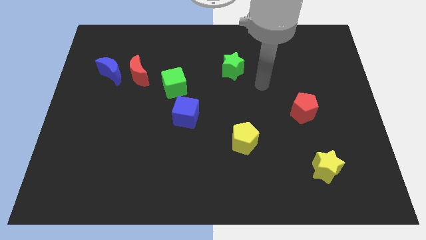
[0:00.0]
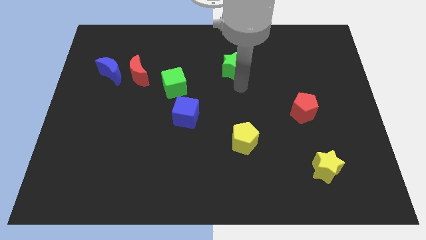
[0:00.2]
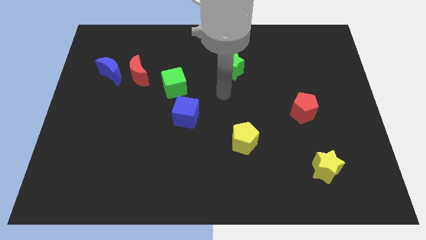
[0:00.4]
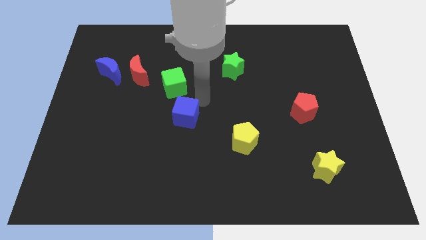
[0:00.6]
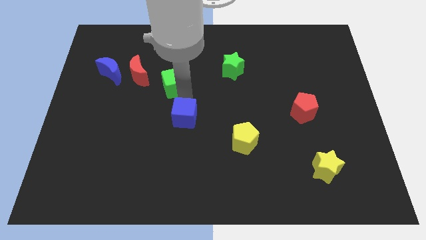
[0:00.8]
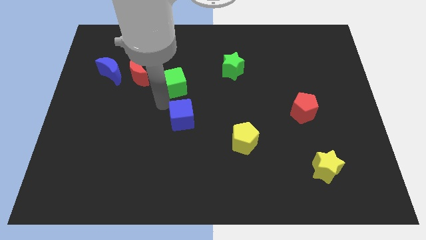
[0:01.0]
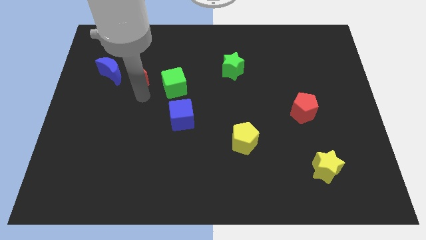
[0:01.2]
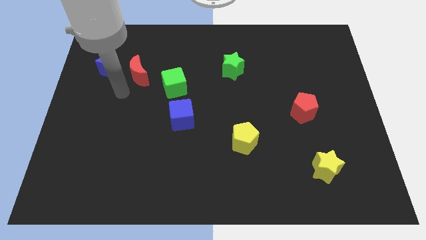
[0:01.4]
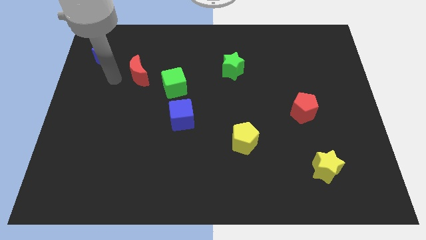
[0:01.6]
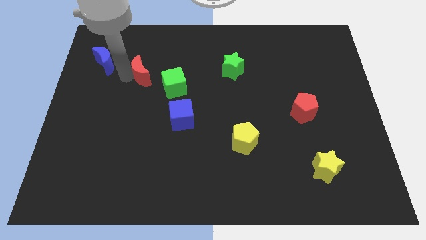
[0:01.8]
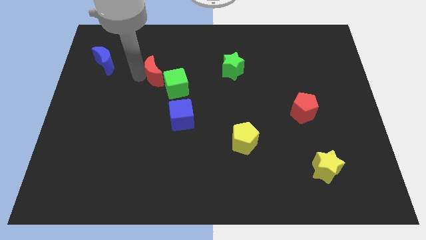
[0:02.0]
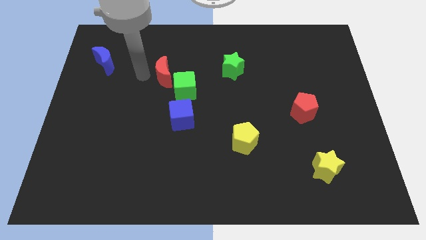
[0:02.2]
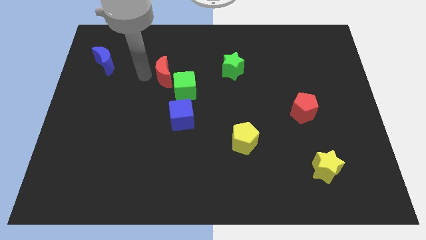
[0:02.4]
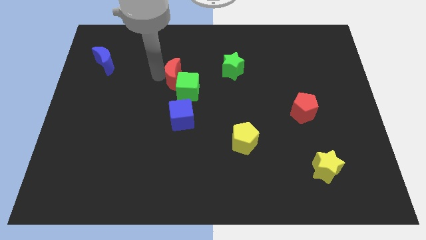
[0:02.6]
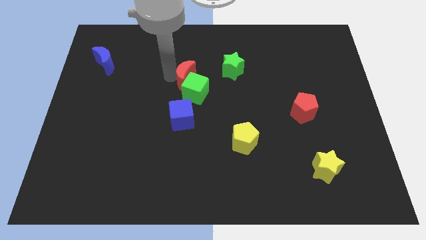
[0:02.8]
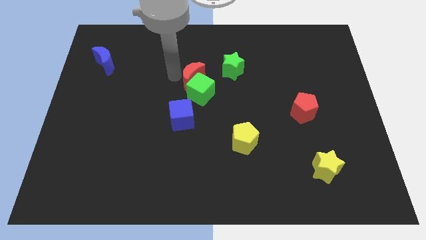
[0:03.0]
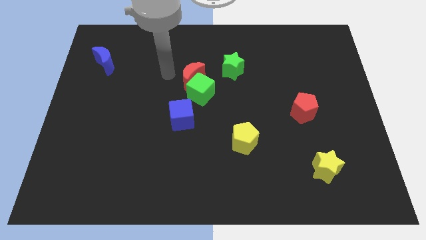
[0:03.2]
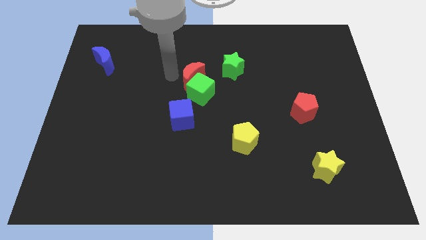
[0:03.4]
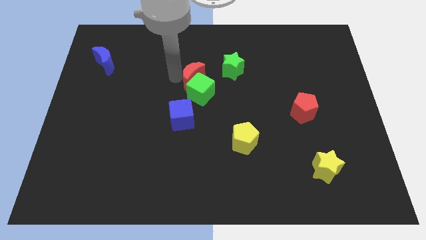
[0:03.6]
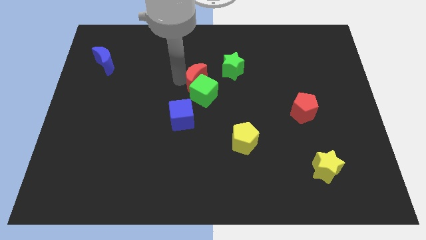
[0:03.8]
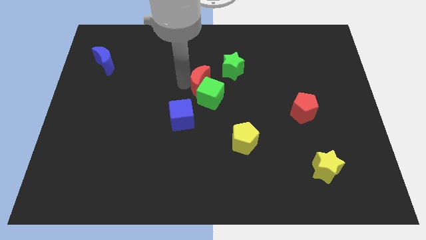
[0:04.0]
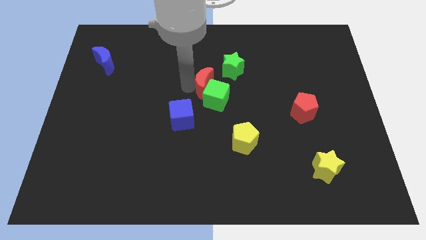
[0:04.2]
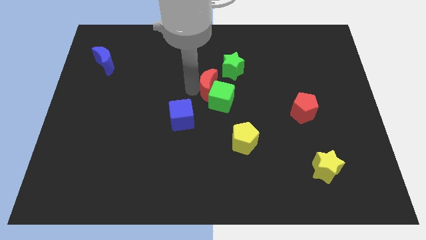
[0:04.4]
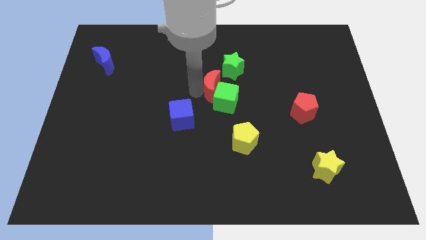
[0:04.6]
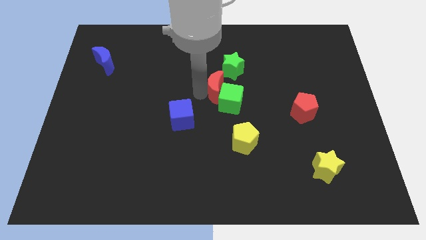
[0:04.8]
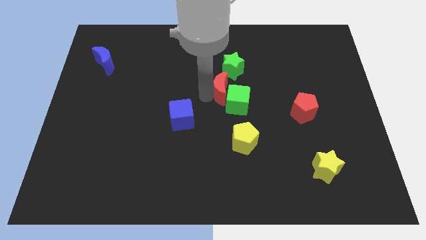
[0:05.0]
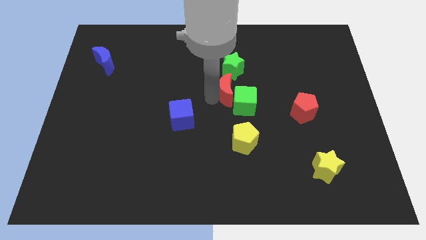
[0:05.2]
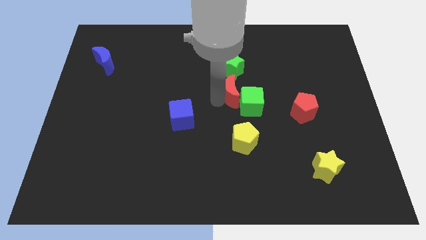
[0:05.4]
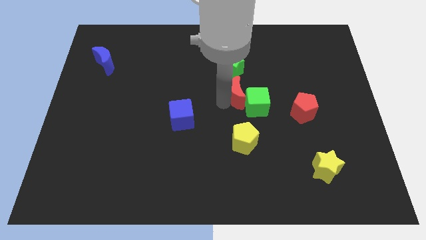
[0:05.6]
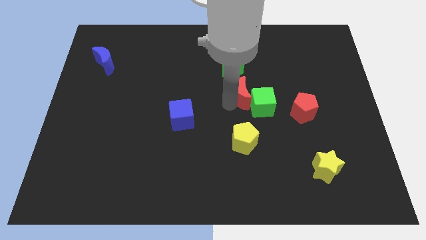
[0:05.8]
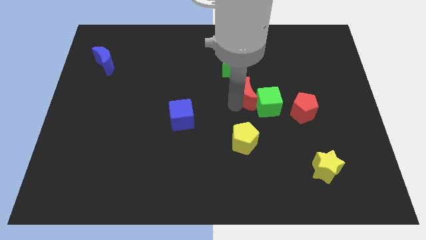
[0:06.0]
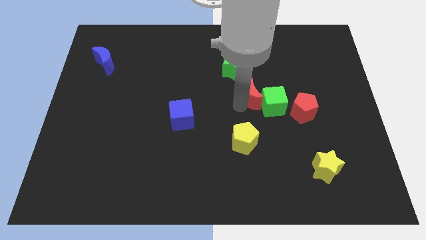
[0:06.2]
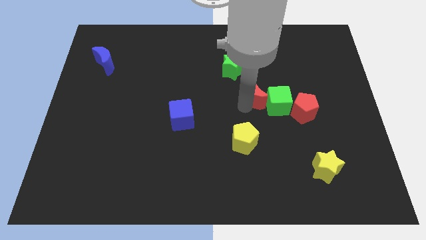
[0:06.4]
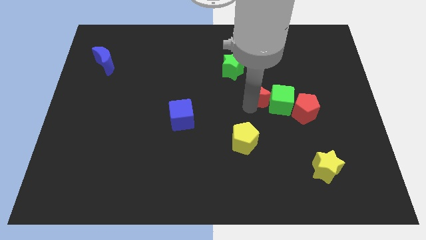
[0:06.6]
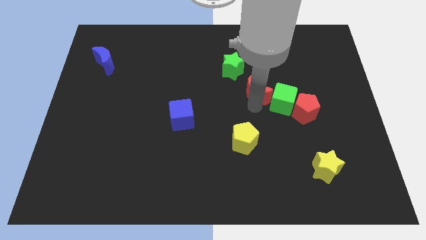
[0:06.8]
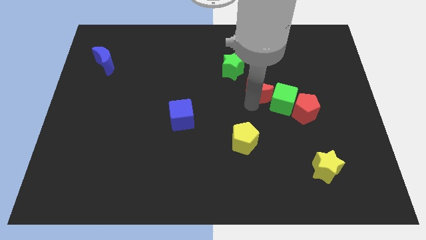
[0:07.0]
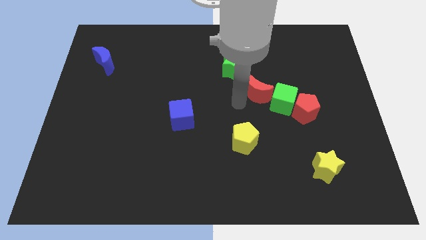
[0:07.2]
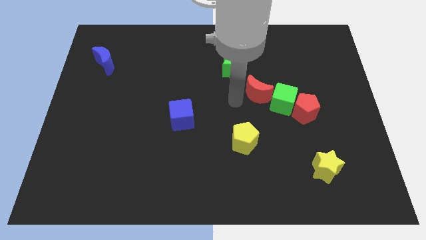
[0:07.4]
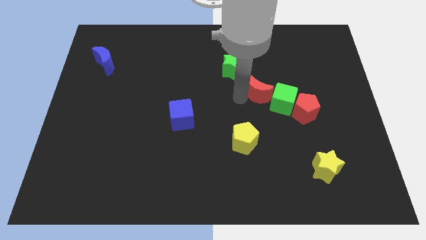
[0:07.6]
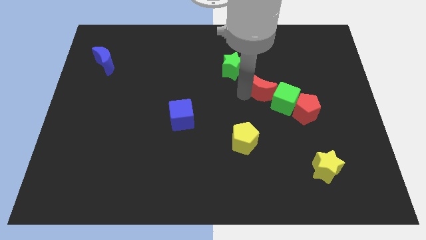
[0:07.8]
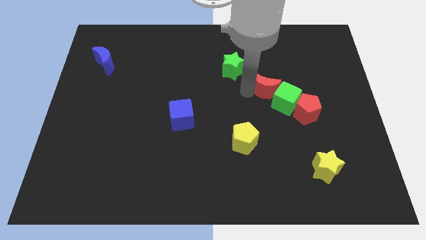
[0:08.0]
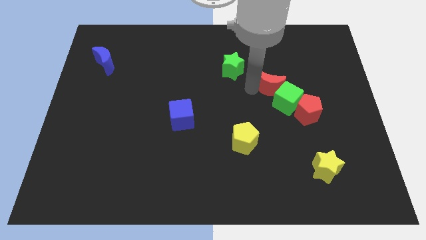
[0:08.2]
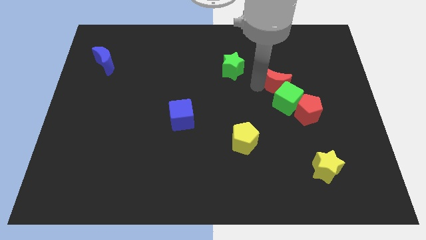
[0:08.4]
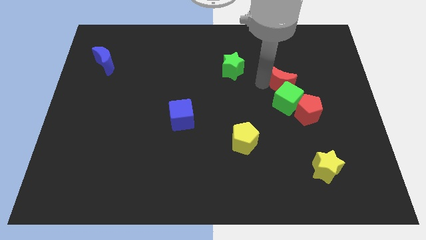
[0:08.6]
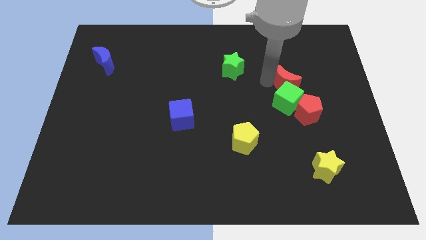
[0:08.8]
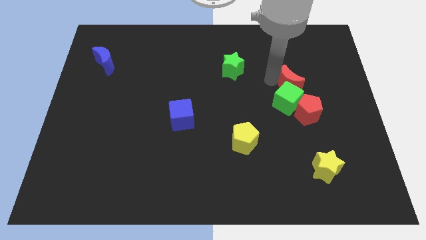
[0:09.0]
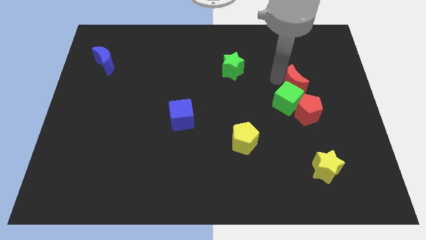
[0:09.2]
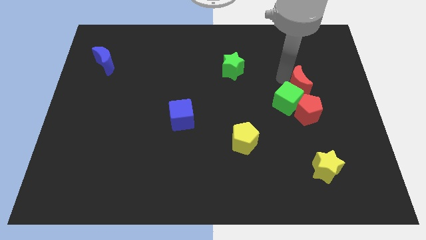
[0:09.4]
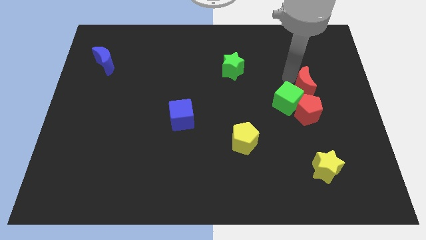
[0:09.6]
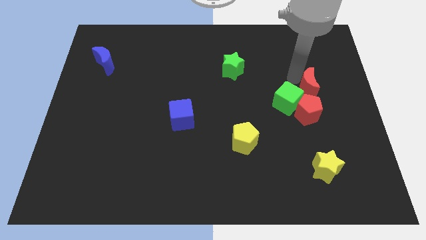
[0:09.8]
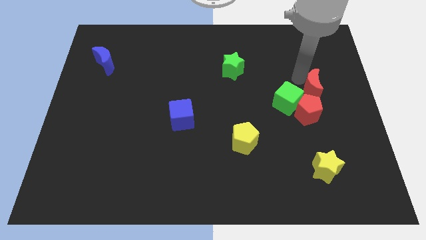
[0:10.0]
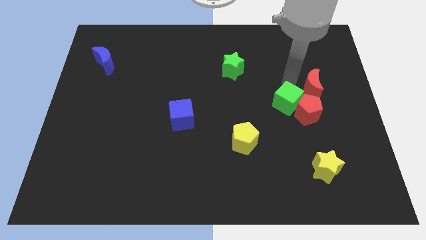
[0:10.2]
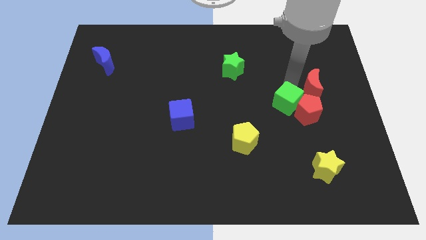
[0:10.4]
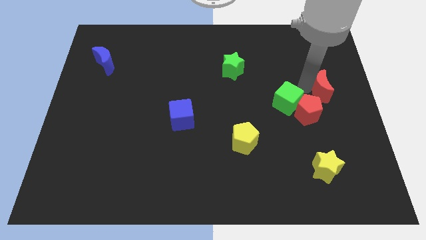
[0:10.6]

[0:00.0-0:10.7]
move the red moon to the right side

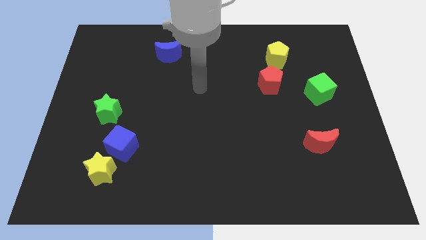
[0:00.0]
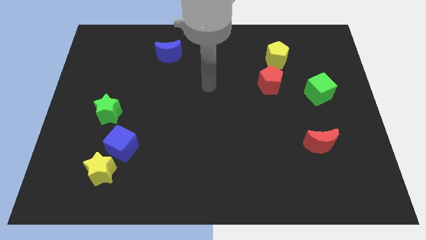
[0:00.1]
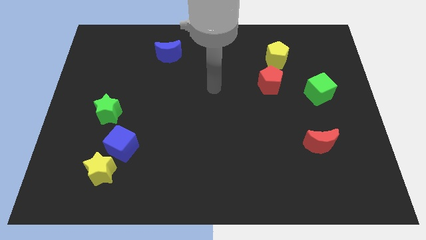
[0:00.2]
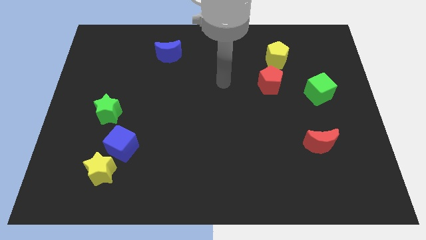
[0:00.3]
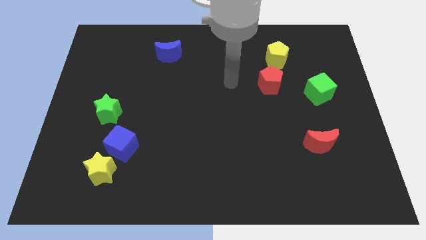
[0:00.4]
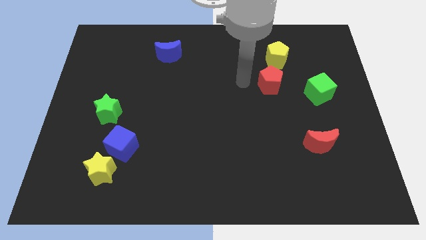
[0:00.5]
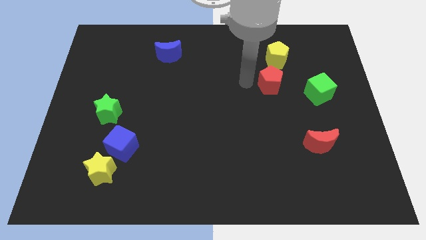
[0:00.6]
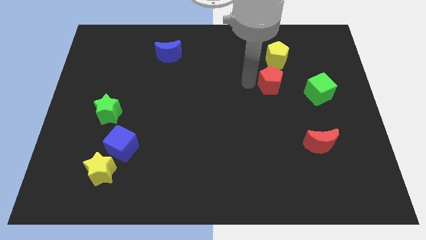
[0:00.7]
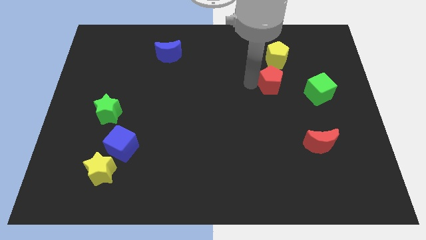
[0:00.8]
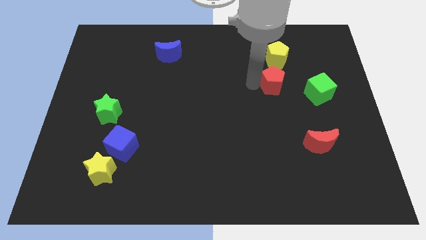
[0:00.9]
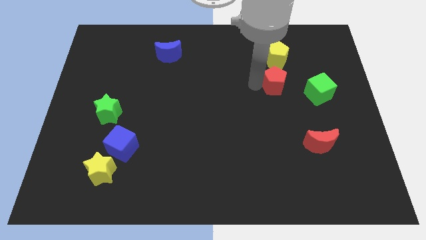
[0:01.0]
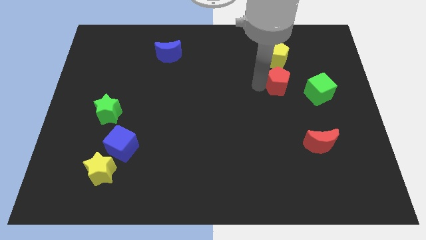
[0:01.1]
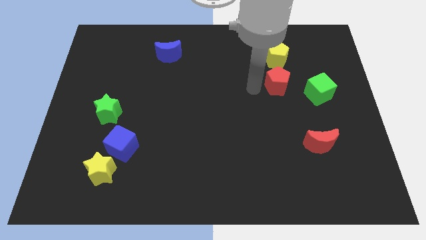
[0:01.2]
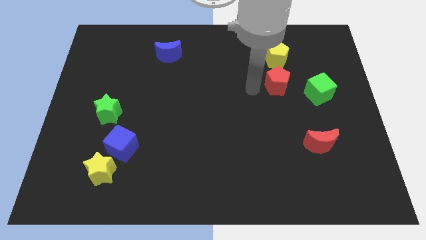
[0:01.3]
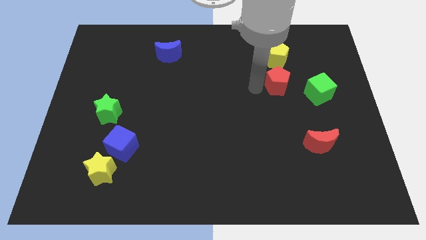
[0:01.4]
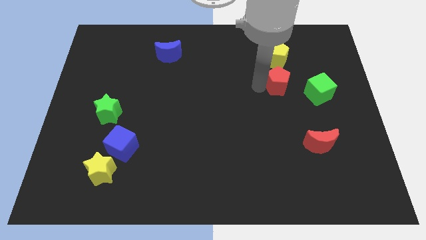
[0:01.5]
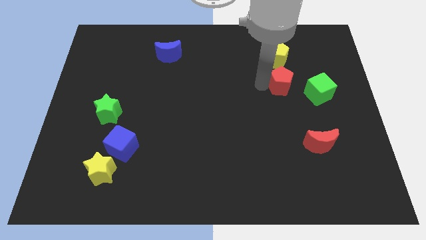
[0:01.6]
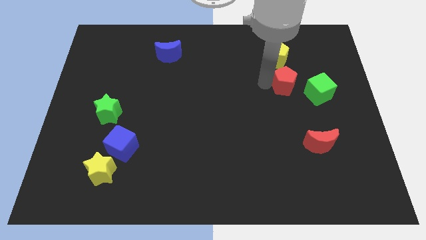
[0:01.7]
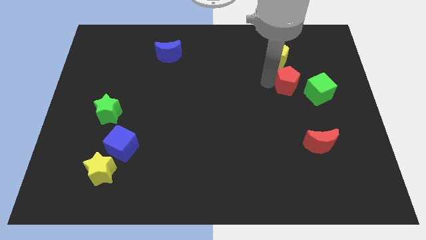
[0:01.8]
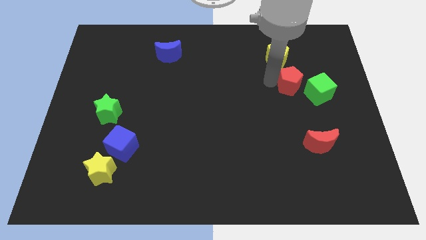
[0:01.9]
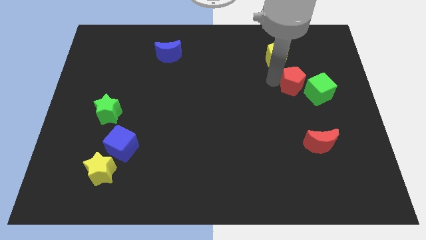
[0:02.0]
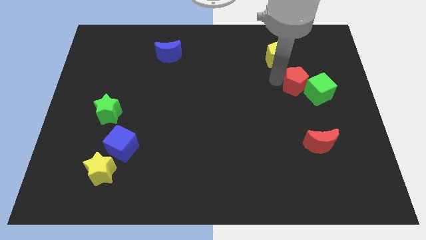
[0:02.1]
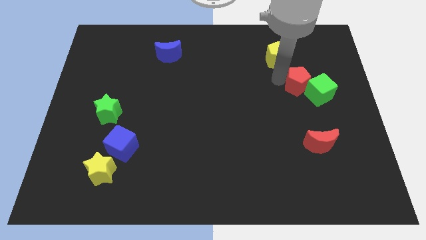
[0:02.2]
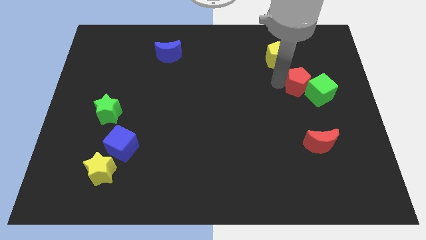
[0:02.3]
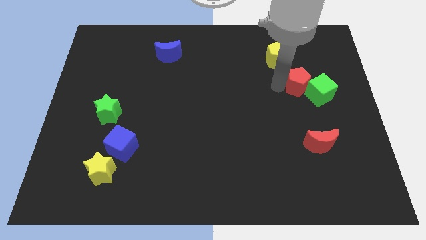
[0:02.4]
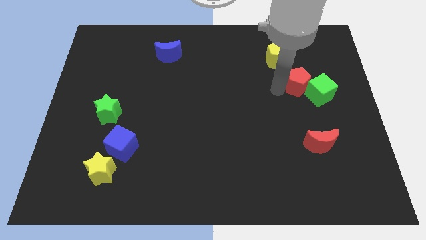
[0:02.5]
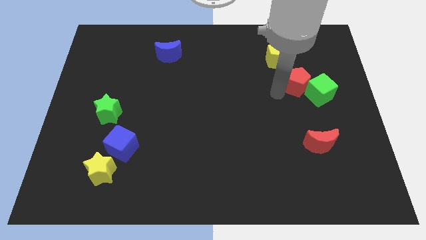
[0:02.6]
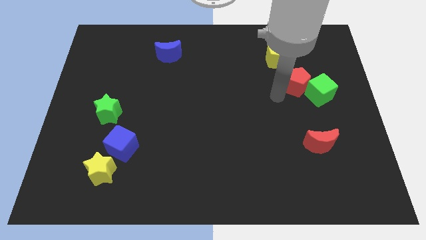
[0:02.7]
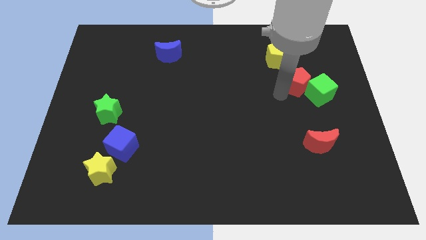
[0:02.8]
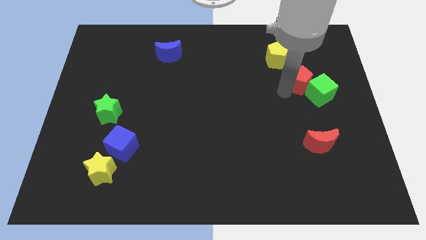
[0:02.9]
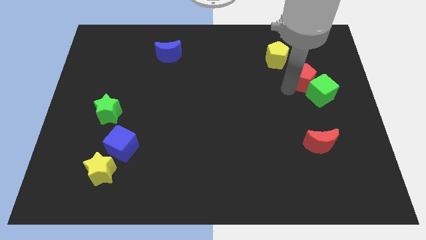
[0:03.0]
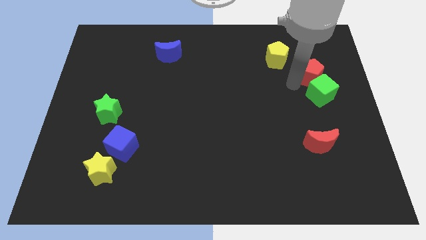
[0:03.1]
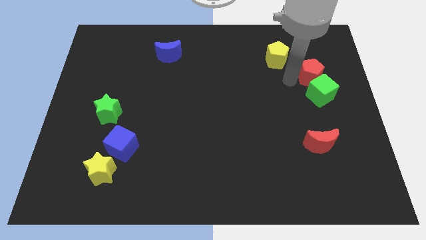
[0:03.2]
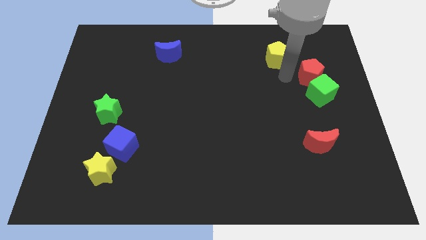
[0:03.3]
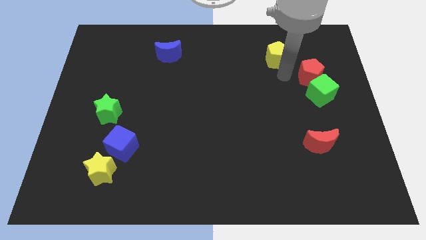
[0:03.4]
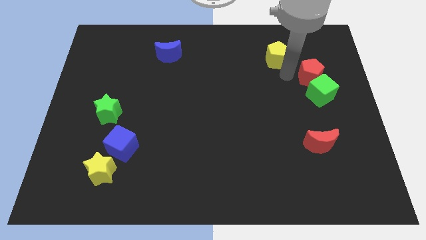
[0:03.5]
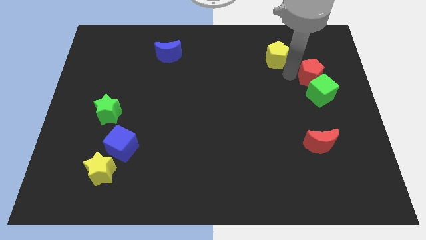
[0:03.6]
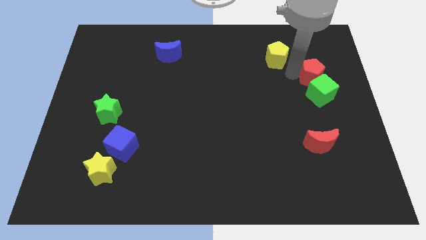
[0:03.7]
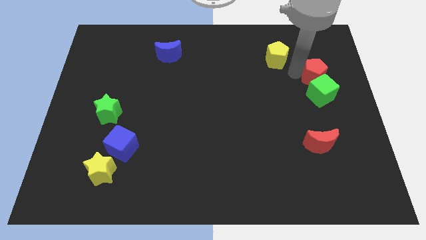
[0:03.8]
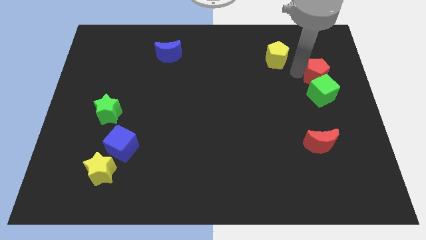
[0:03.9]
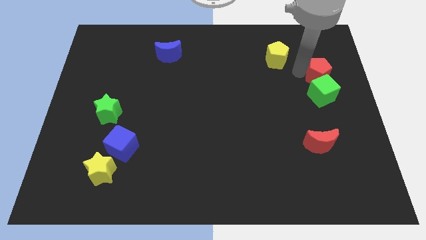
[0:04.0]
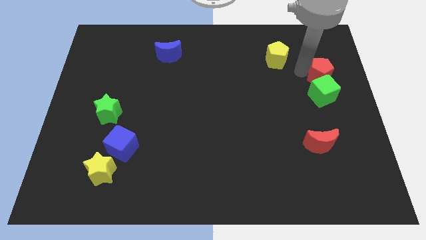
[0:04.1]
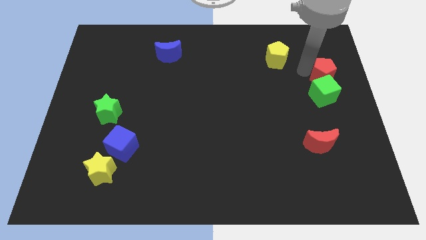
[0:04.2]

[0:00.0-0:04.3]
put the red pentagon to the right side
